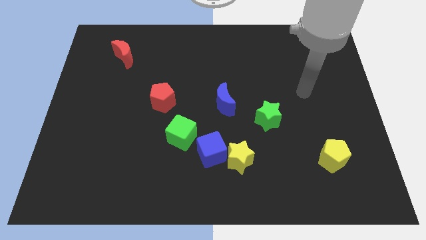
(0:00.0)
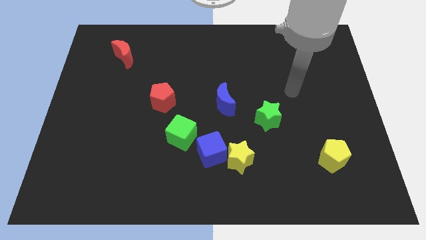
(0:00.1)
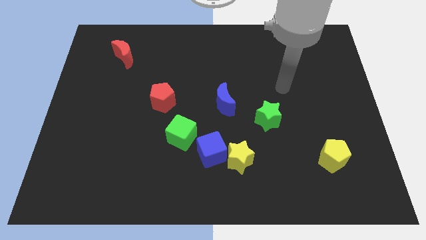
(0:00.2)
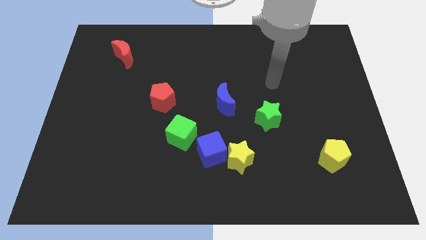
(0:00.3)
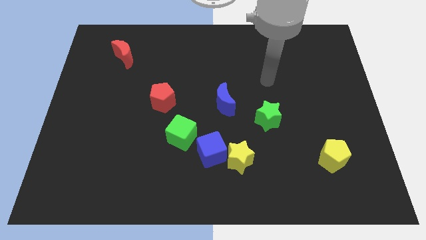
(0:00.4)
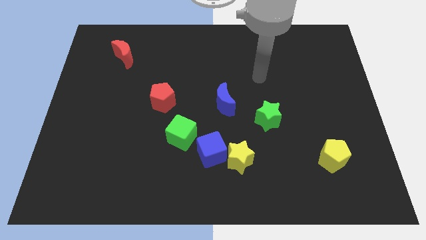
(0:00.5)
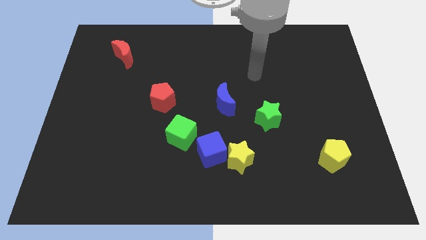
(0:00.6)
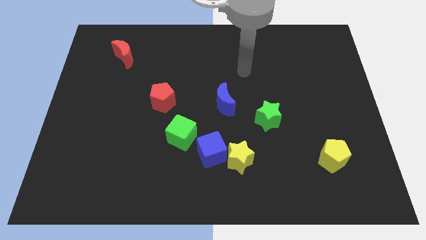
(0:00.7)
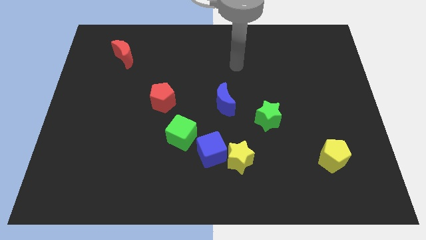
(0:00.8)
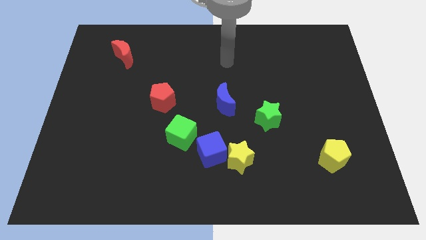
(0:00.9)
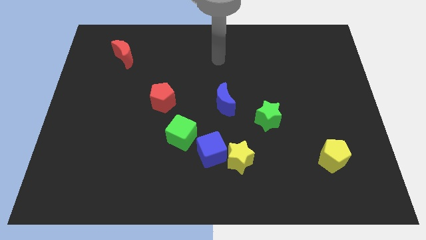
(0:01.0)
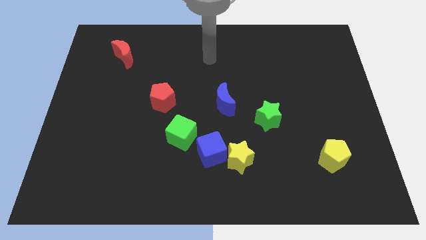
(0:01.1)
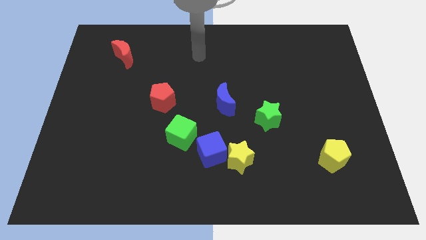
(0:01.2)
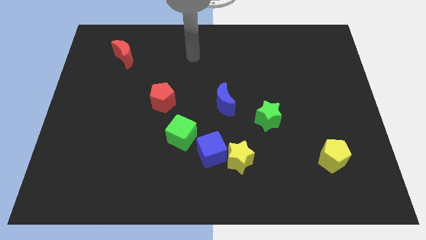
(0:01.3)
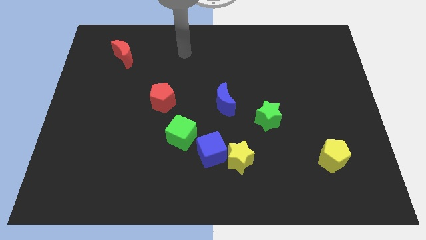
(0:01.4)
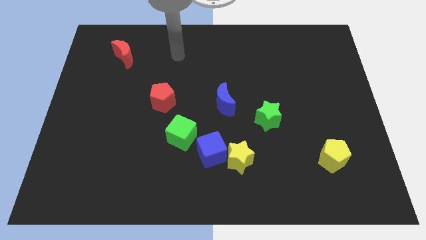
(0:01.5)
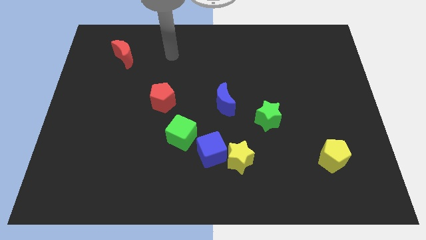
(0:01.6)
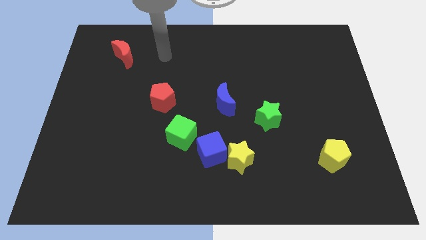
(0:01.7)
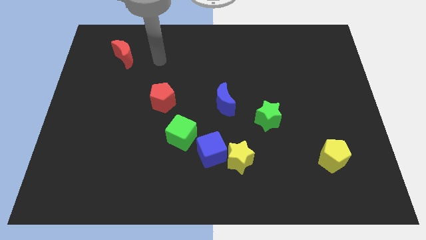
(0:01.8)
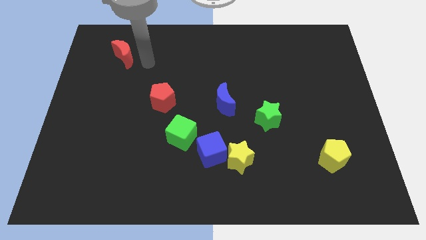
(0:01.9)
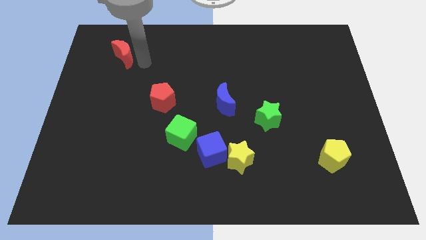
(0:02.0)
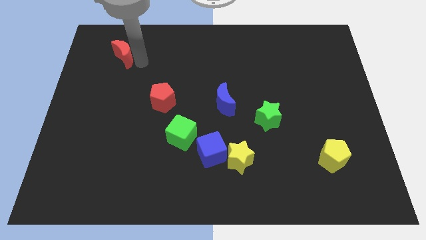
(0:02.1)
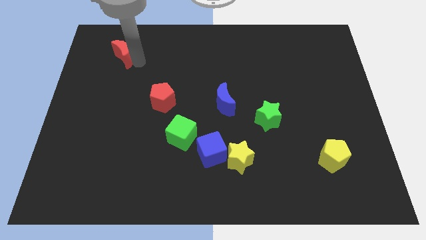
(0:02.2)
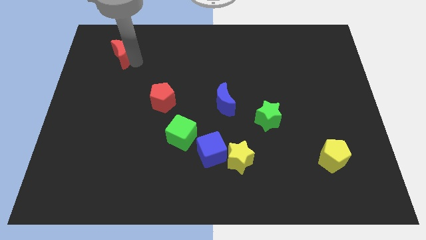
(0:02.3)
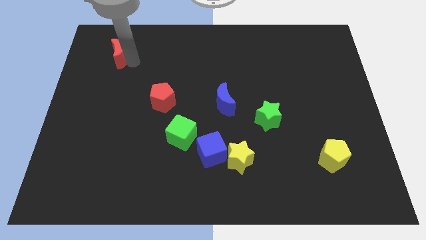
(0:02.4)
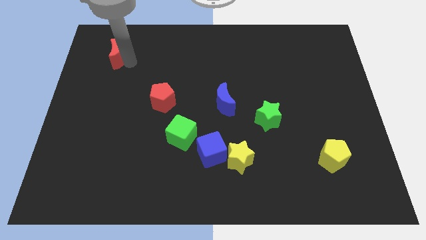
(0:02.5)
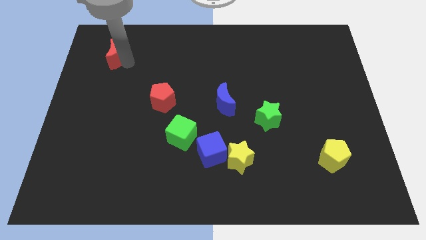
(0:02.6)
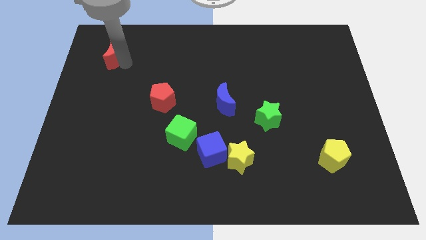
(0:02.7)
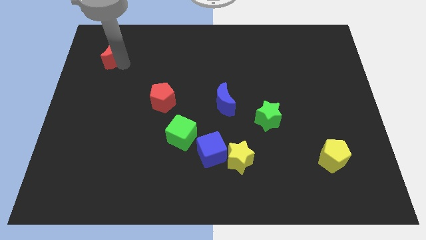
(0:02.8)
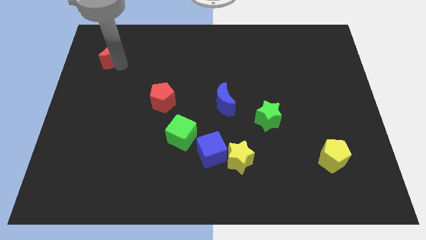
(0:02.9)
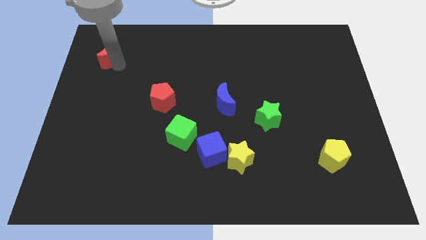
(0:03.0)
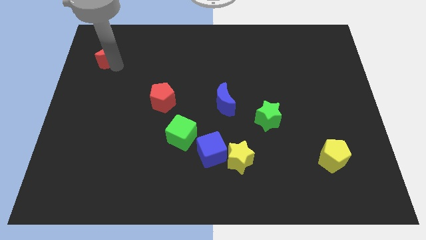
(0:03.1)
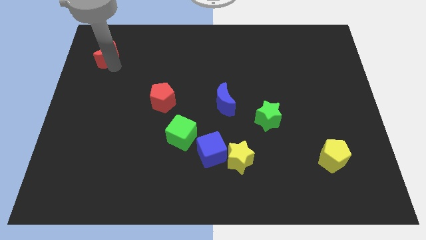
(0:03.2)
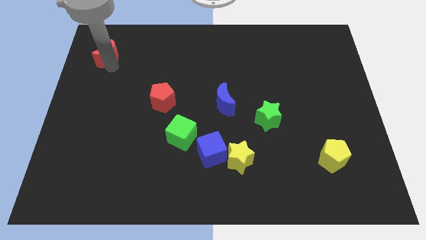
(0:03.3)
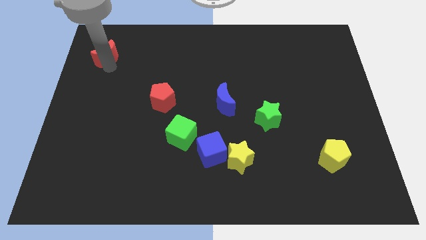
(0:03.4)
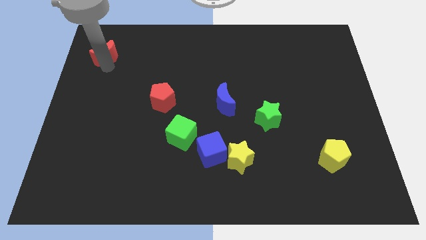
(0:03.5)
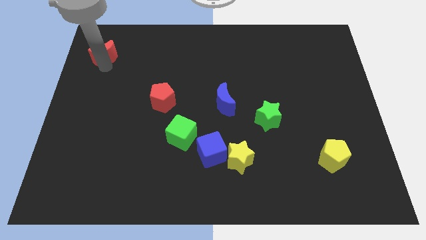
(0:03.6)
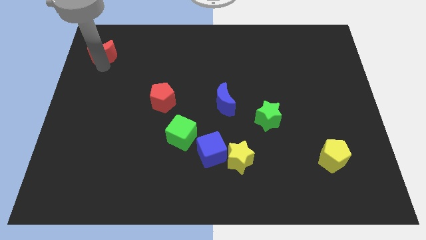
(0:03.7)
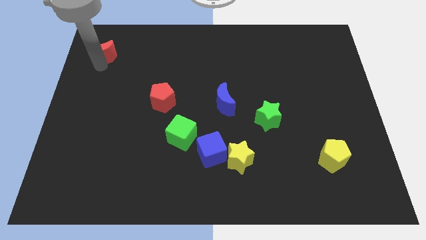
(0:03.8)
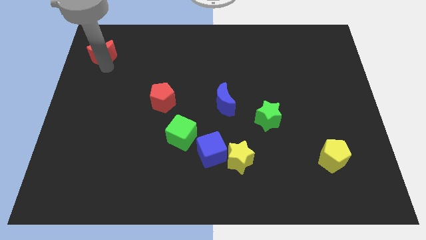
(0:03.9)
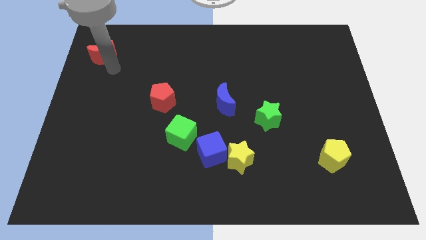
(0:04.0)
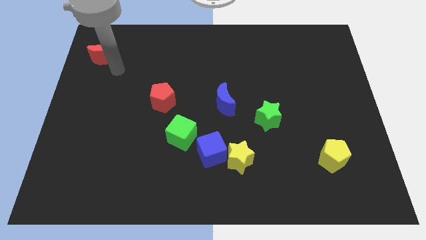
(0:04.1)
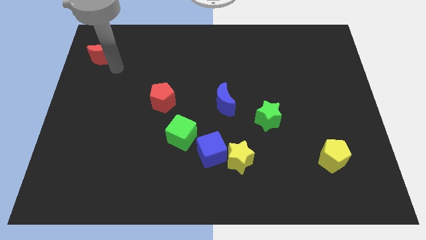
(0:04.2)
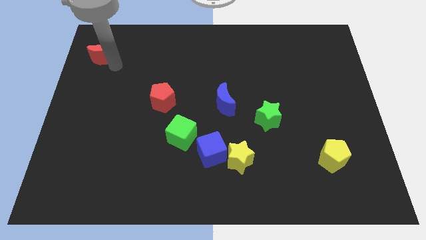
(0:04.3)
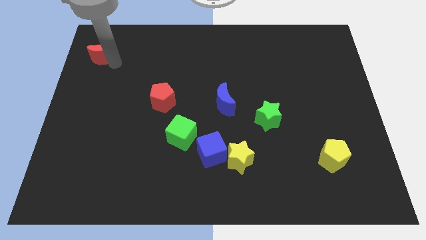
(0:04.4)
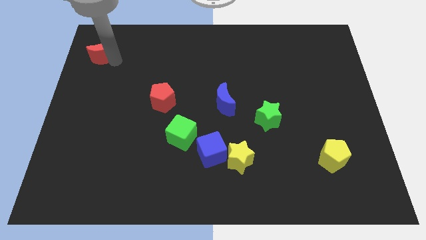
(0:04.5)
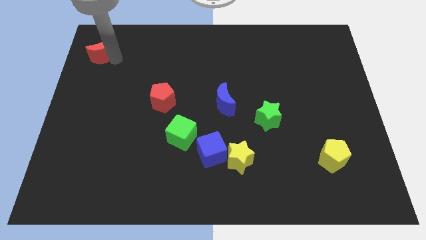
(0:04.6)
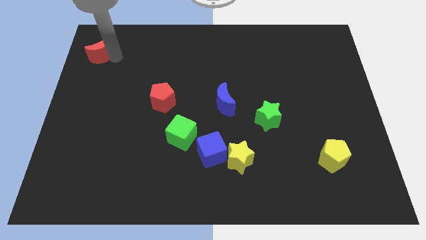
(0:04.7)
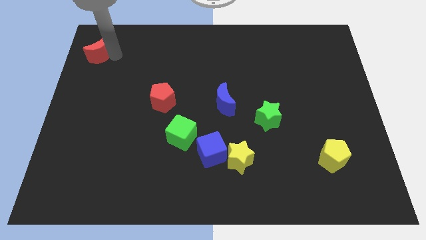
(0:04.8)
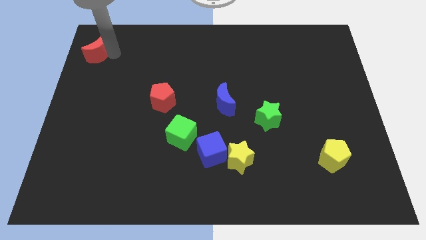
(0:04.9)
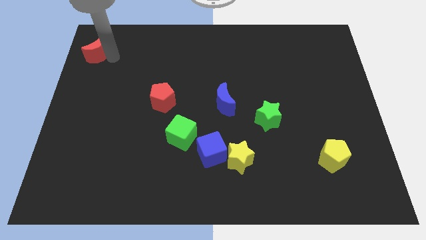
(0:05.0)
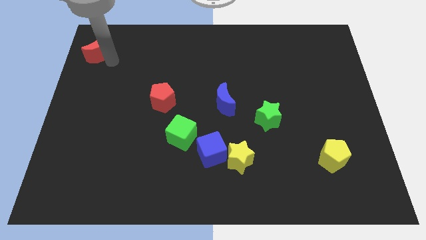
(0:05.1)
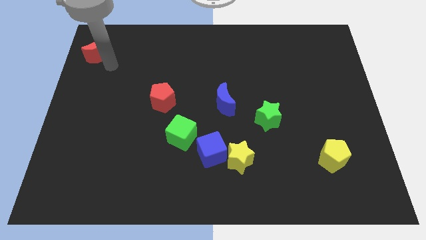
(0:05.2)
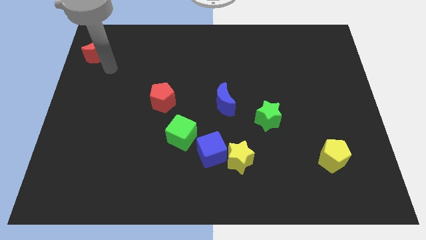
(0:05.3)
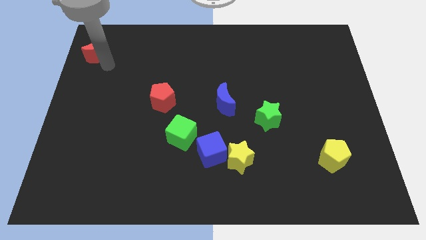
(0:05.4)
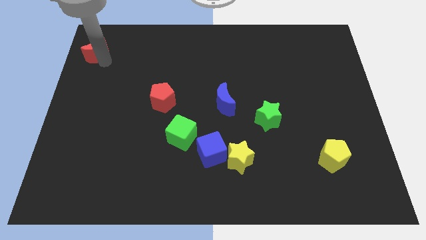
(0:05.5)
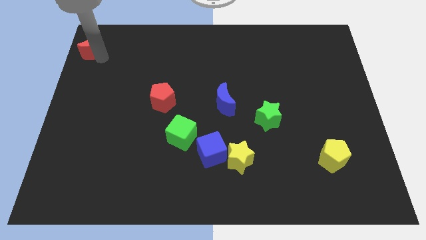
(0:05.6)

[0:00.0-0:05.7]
put the red moon to the top left of the board
